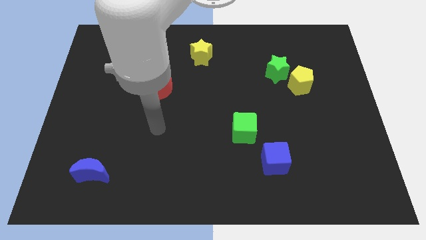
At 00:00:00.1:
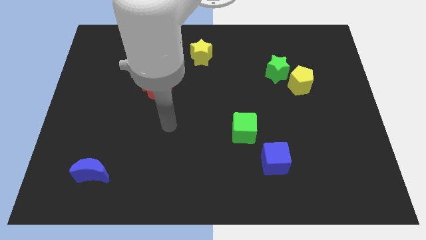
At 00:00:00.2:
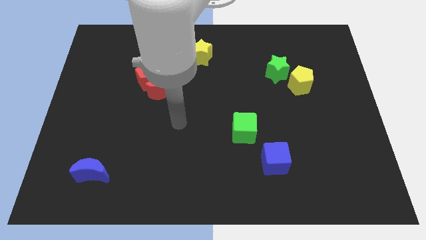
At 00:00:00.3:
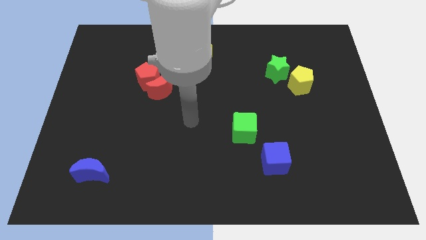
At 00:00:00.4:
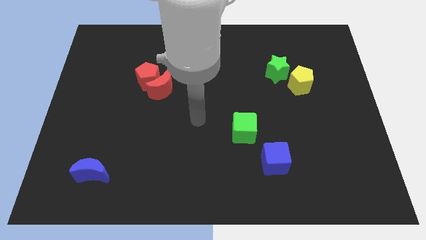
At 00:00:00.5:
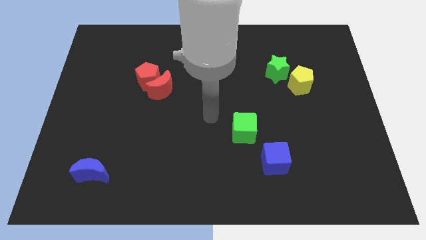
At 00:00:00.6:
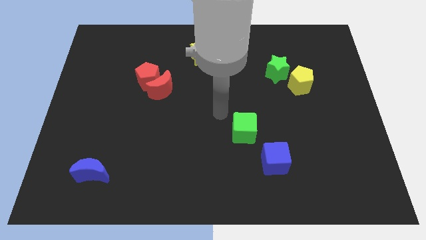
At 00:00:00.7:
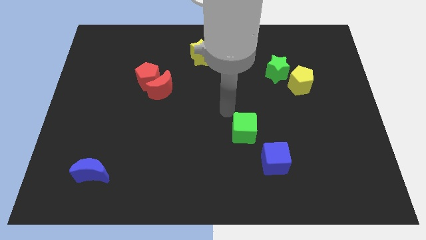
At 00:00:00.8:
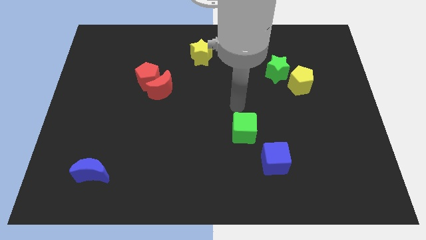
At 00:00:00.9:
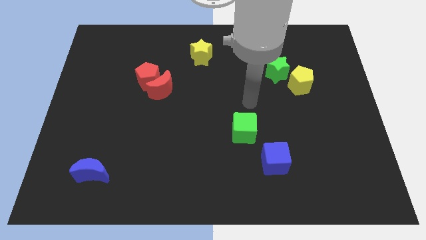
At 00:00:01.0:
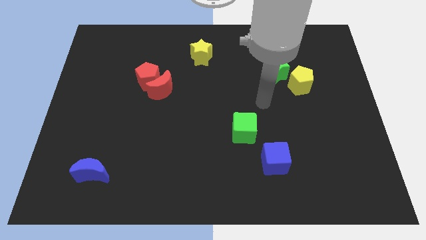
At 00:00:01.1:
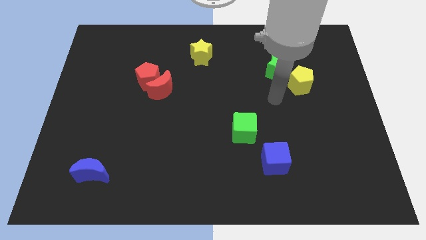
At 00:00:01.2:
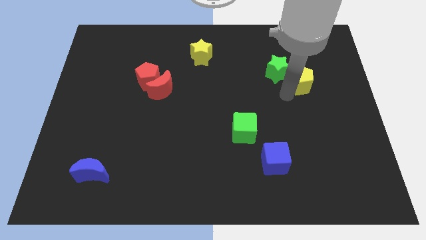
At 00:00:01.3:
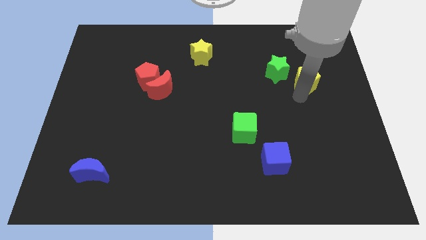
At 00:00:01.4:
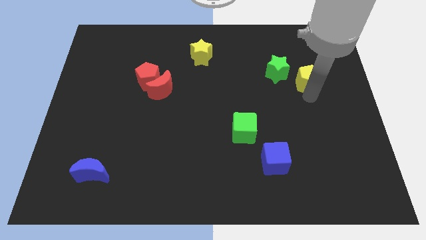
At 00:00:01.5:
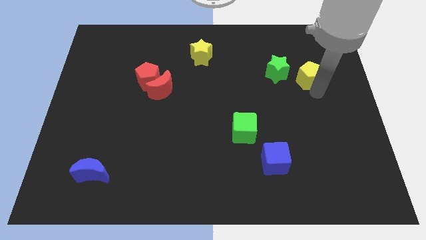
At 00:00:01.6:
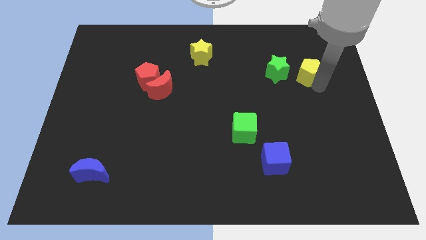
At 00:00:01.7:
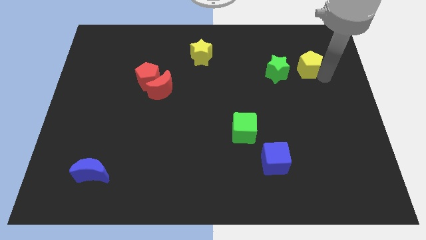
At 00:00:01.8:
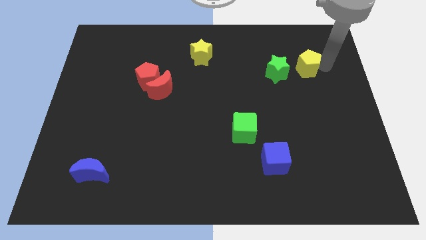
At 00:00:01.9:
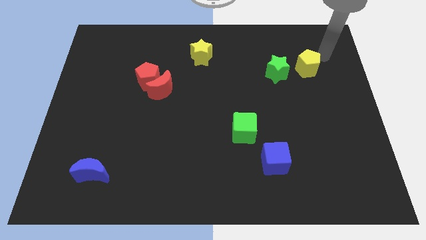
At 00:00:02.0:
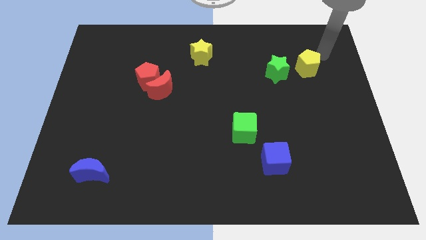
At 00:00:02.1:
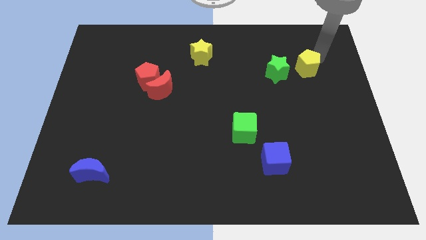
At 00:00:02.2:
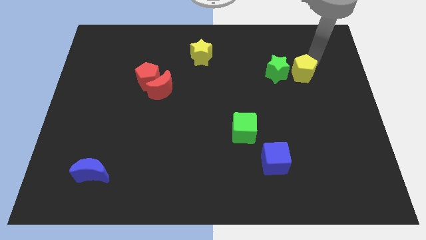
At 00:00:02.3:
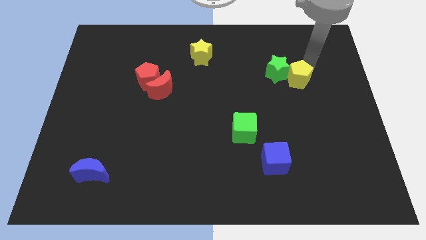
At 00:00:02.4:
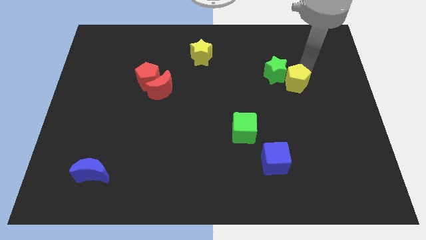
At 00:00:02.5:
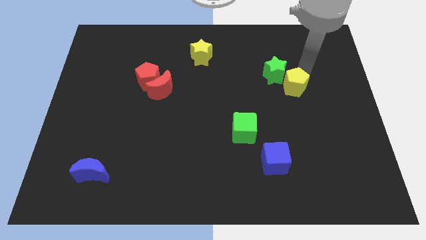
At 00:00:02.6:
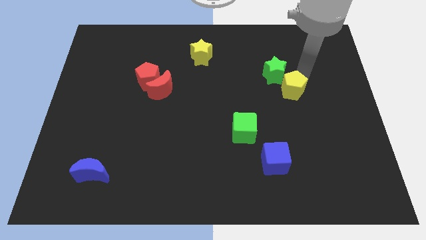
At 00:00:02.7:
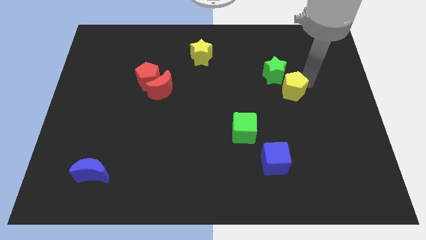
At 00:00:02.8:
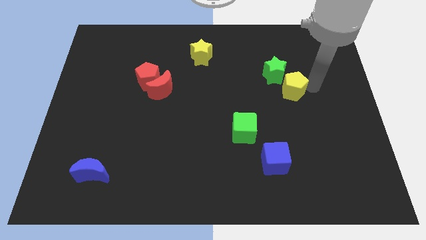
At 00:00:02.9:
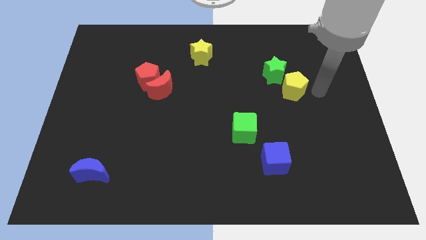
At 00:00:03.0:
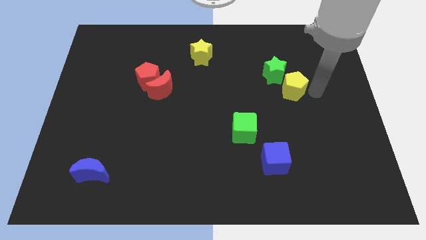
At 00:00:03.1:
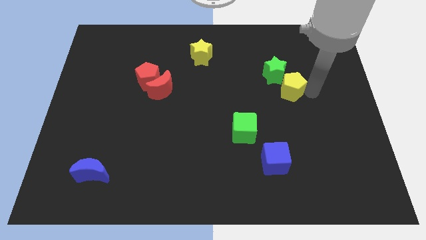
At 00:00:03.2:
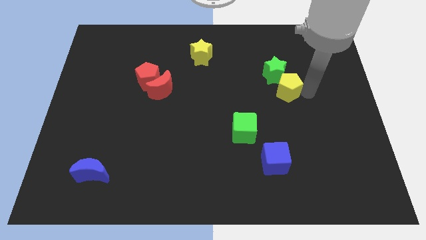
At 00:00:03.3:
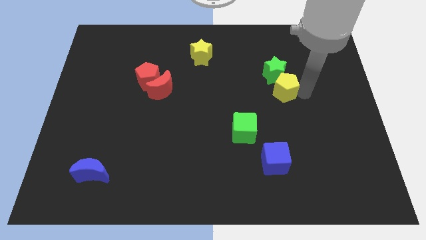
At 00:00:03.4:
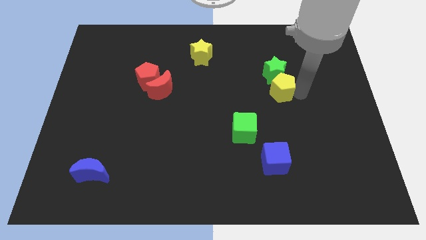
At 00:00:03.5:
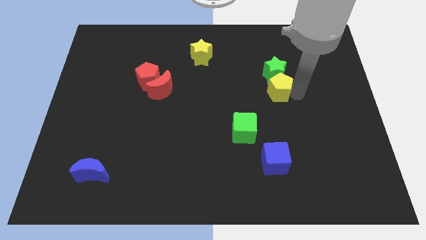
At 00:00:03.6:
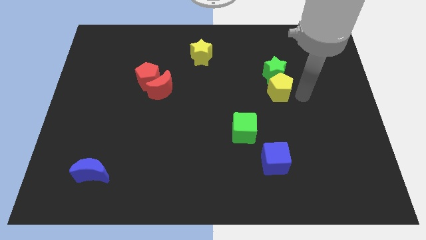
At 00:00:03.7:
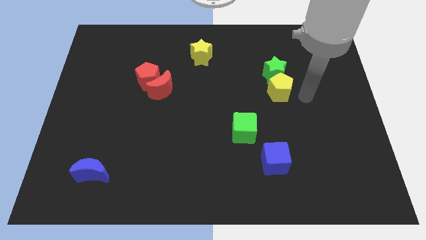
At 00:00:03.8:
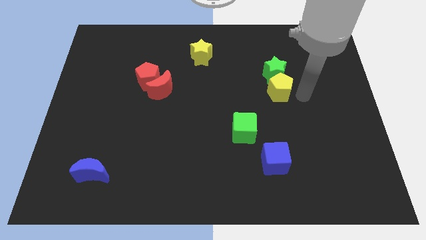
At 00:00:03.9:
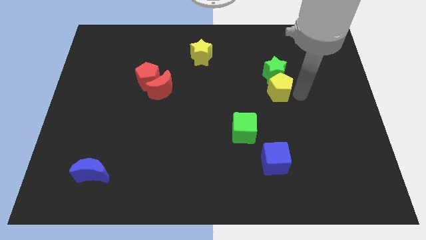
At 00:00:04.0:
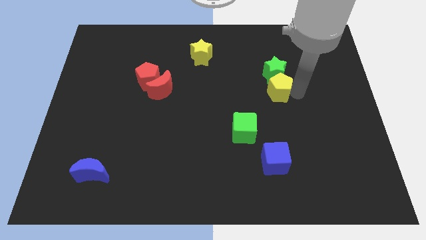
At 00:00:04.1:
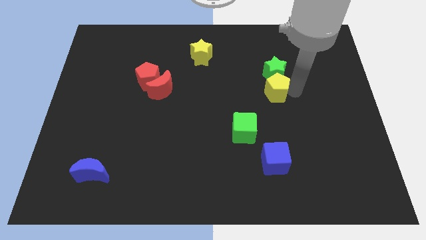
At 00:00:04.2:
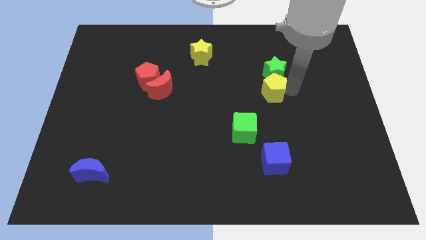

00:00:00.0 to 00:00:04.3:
slightly push the yellow pentagon to the left

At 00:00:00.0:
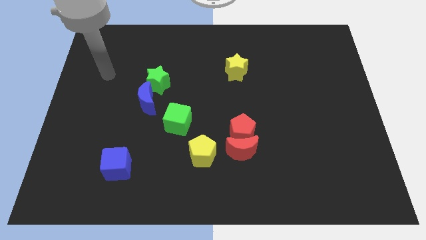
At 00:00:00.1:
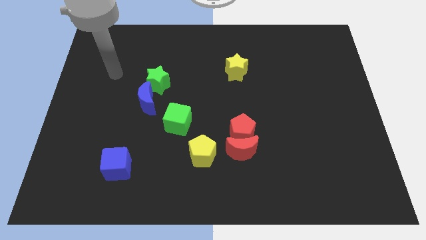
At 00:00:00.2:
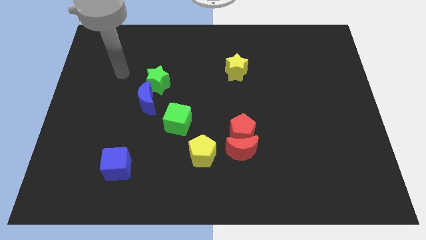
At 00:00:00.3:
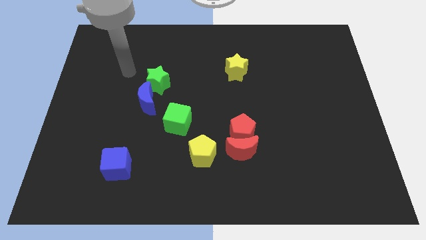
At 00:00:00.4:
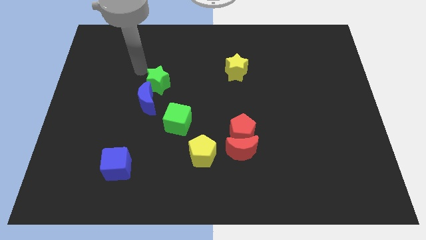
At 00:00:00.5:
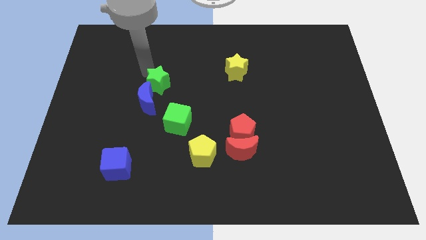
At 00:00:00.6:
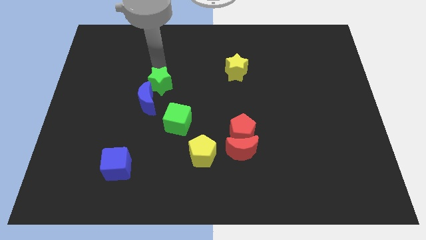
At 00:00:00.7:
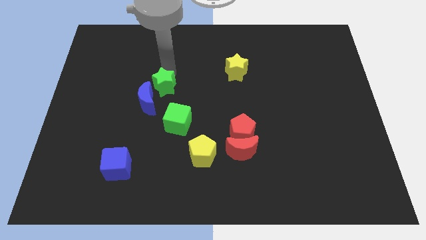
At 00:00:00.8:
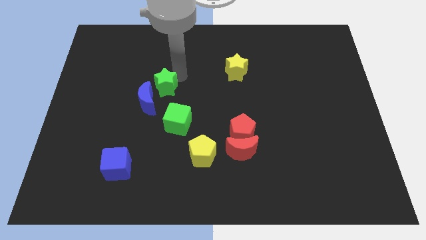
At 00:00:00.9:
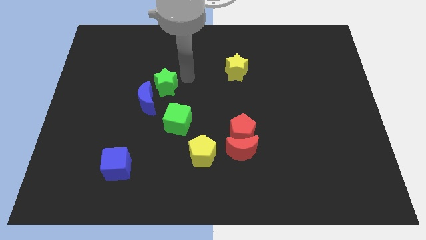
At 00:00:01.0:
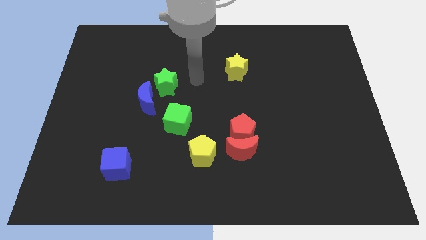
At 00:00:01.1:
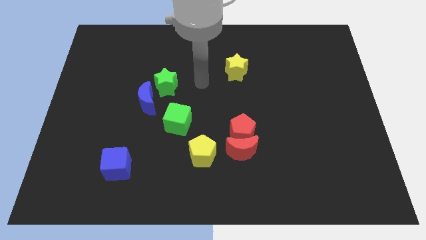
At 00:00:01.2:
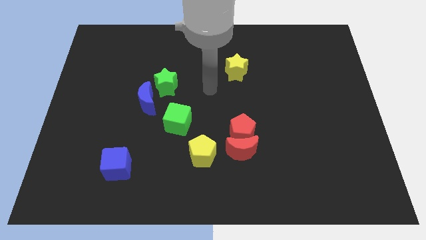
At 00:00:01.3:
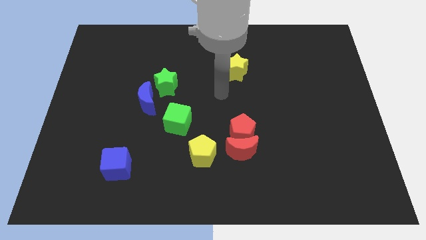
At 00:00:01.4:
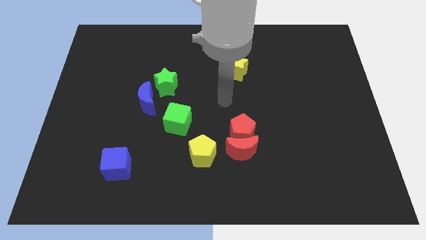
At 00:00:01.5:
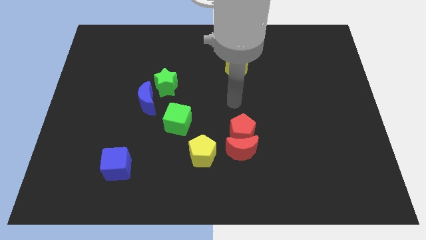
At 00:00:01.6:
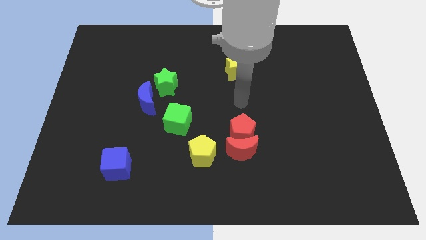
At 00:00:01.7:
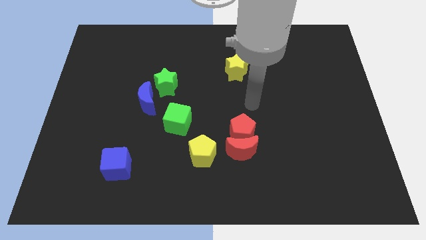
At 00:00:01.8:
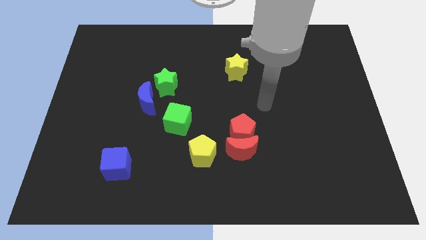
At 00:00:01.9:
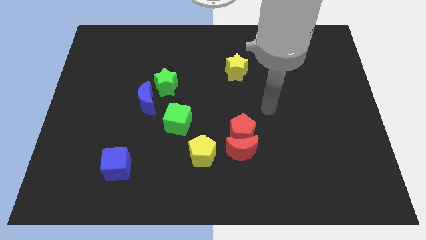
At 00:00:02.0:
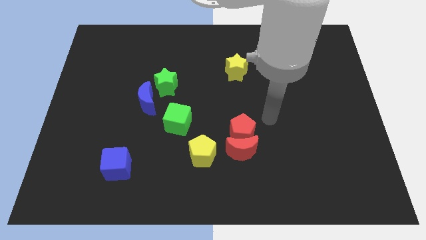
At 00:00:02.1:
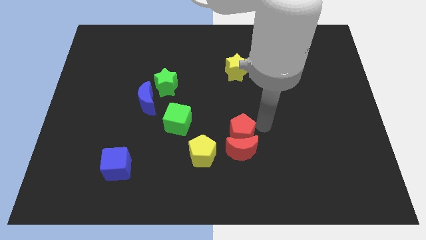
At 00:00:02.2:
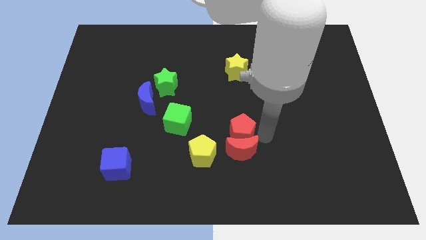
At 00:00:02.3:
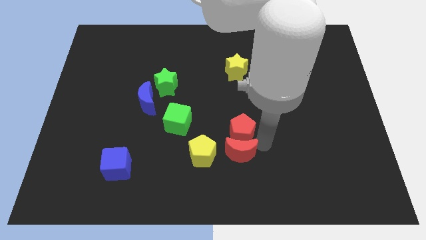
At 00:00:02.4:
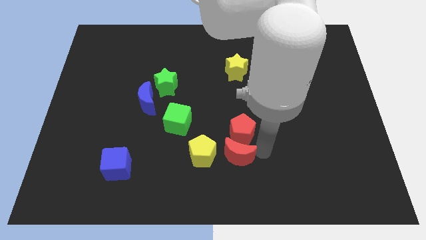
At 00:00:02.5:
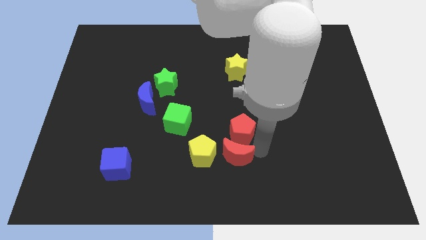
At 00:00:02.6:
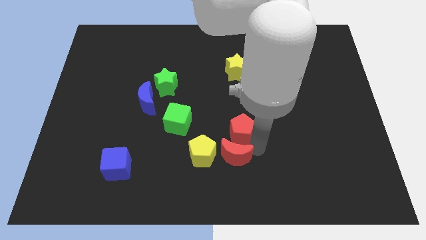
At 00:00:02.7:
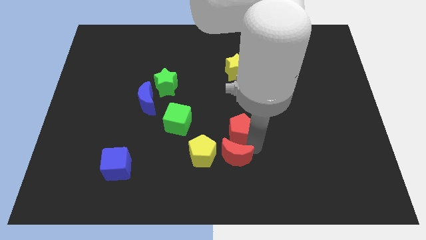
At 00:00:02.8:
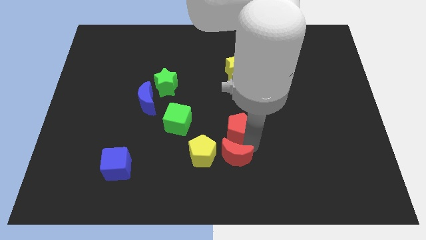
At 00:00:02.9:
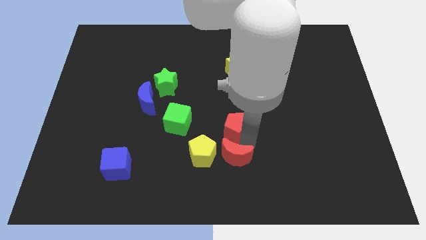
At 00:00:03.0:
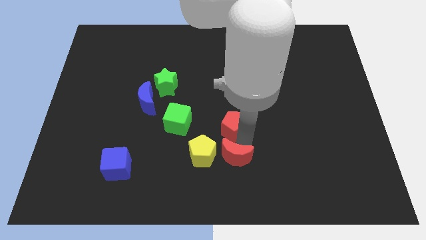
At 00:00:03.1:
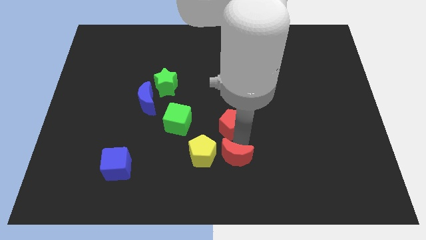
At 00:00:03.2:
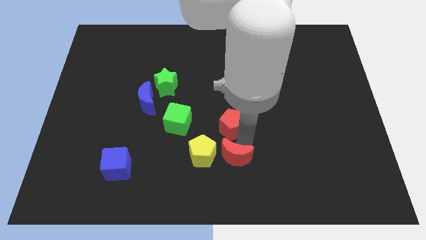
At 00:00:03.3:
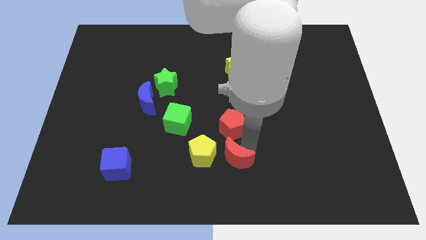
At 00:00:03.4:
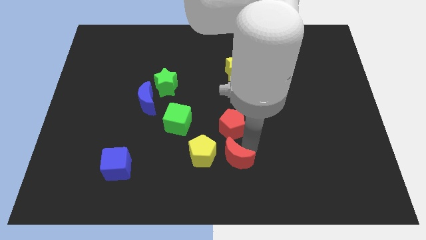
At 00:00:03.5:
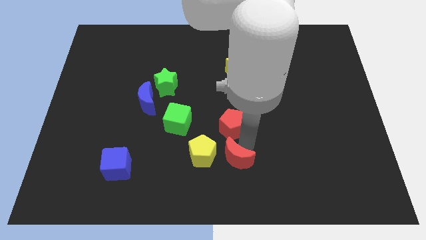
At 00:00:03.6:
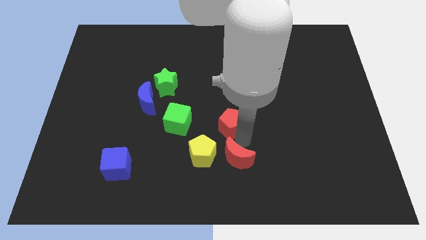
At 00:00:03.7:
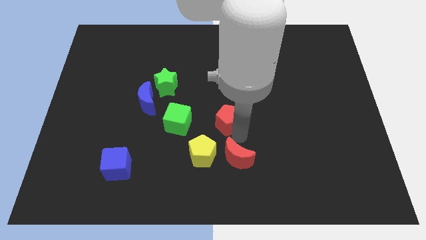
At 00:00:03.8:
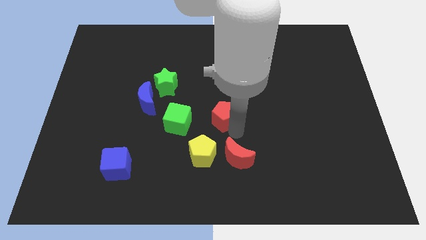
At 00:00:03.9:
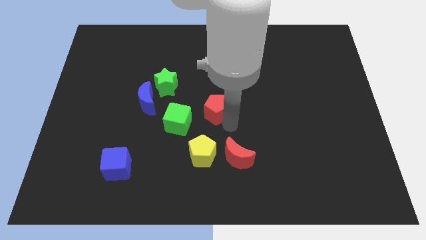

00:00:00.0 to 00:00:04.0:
push the red pentagon upwards and to the left a little bit
